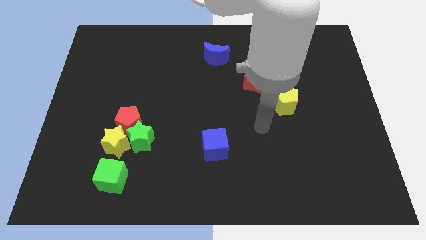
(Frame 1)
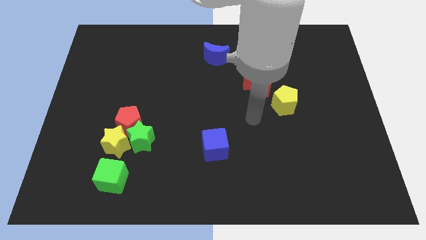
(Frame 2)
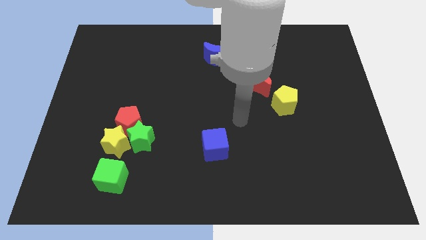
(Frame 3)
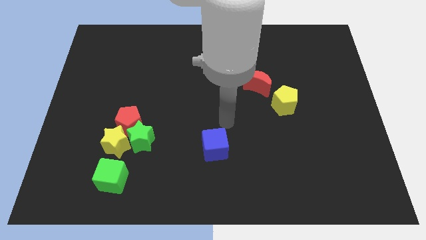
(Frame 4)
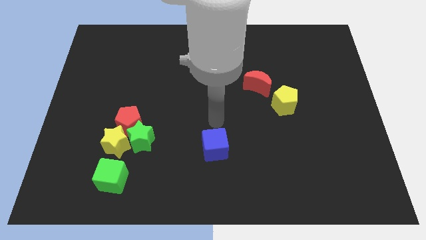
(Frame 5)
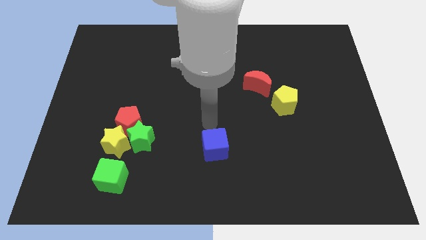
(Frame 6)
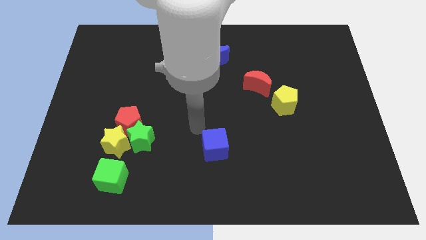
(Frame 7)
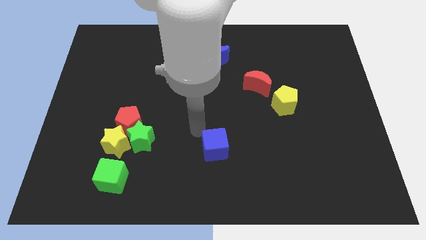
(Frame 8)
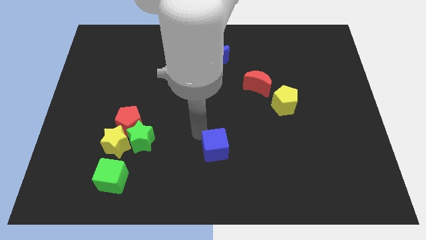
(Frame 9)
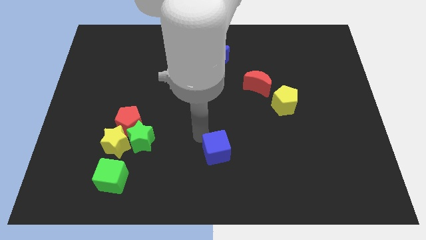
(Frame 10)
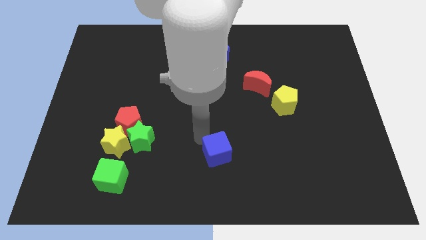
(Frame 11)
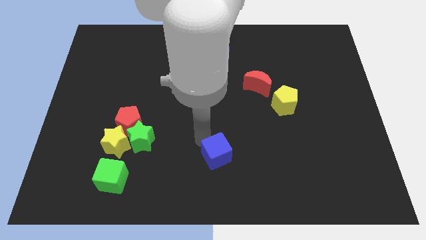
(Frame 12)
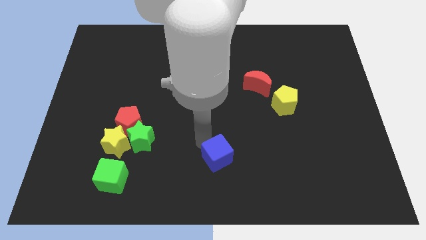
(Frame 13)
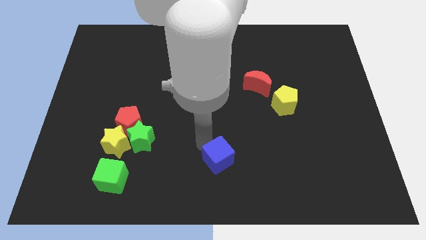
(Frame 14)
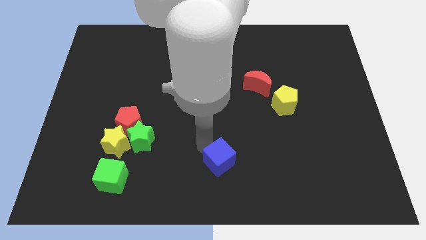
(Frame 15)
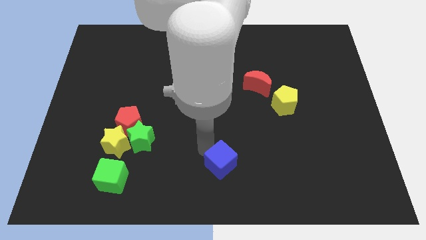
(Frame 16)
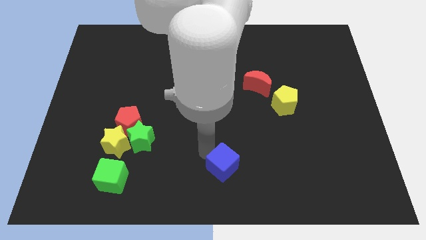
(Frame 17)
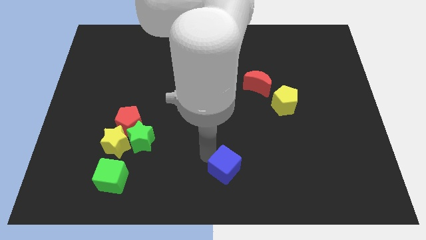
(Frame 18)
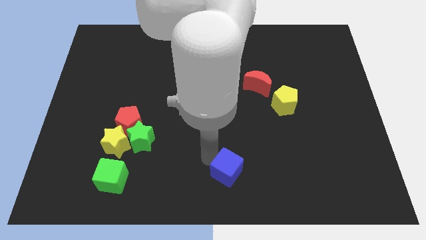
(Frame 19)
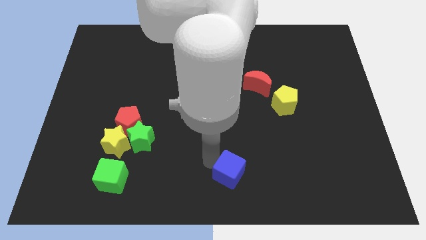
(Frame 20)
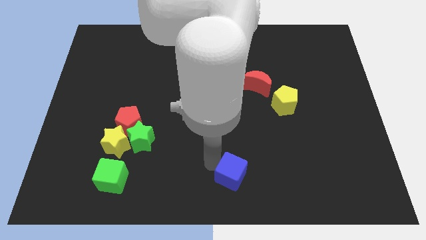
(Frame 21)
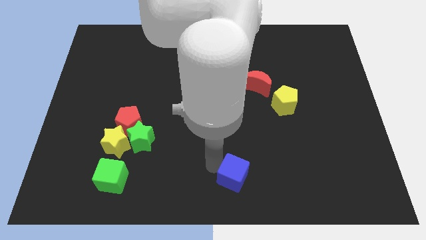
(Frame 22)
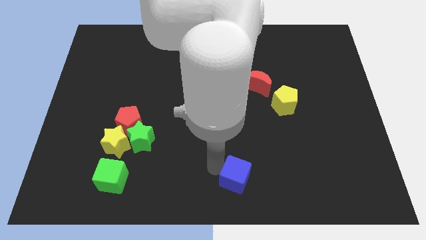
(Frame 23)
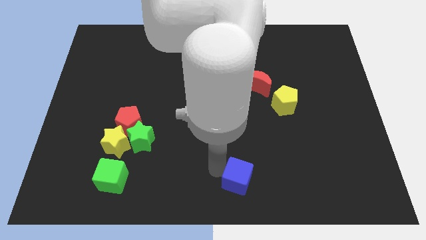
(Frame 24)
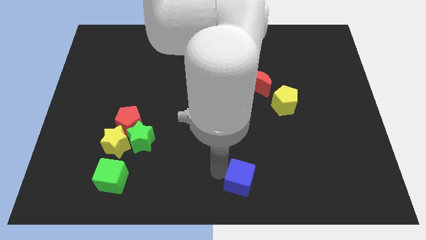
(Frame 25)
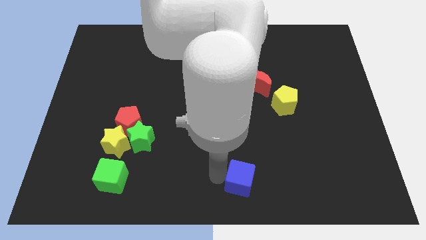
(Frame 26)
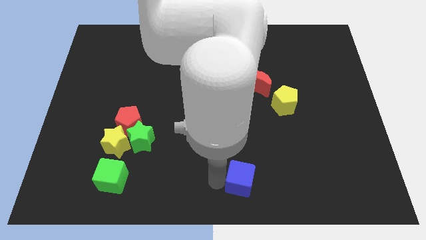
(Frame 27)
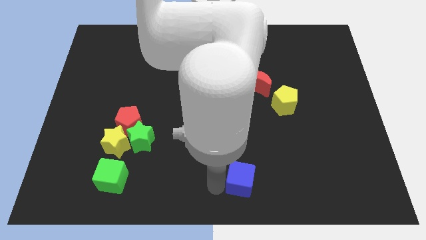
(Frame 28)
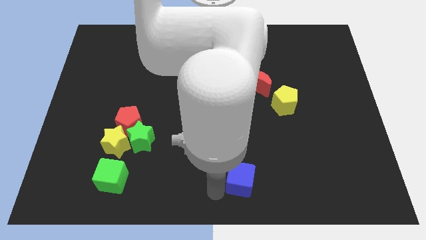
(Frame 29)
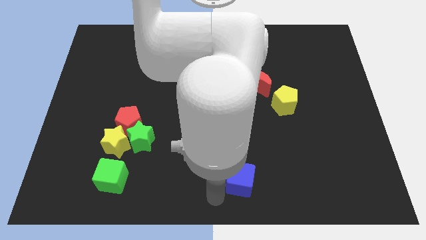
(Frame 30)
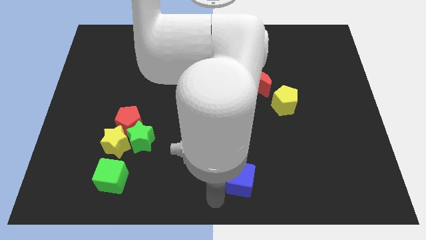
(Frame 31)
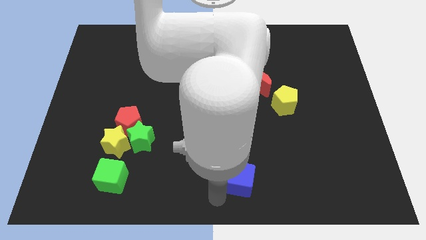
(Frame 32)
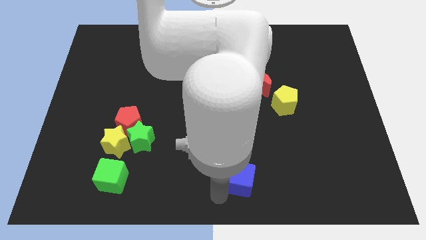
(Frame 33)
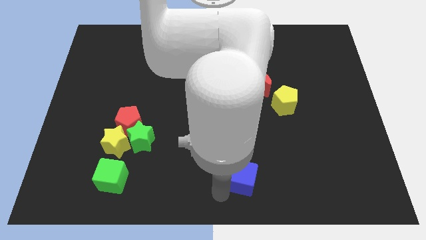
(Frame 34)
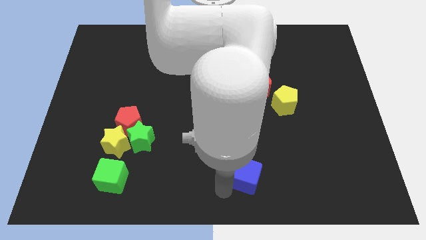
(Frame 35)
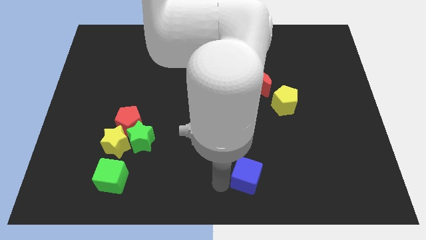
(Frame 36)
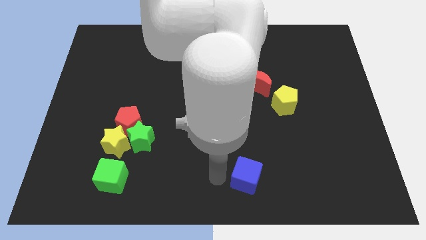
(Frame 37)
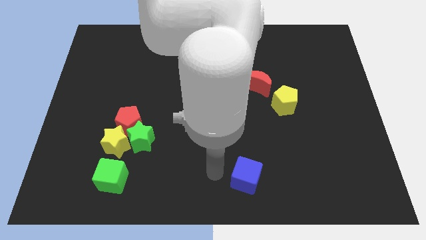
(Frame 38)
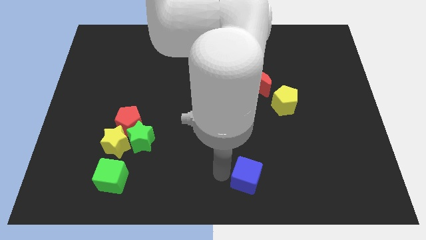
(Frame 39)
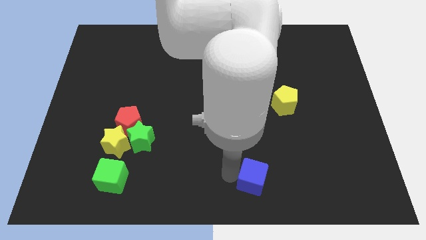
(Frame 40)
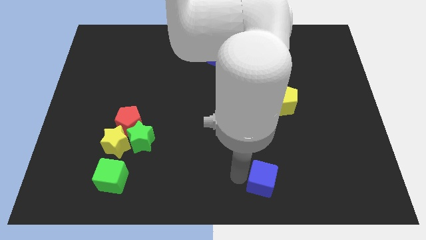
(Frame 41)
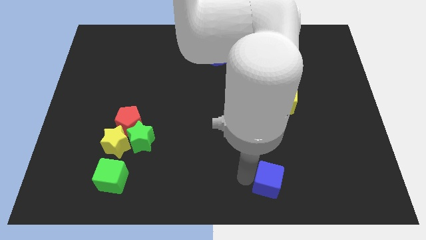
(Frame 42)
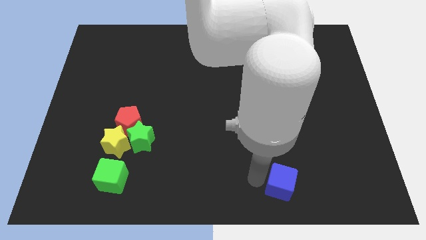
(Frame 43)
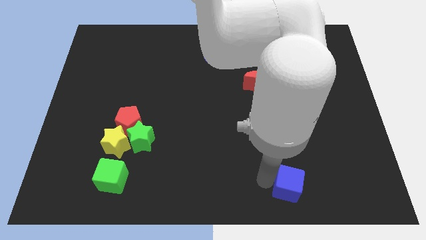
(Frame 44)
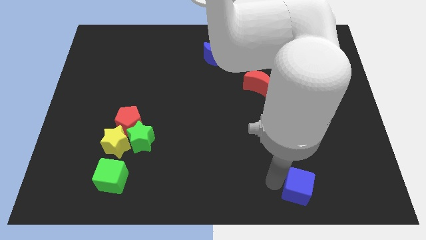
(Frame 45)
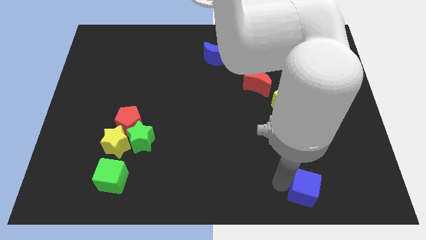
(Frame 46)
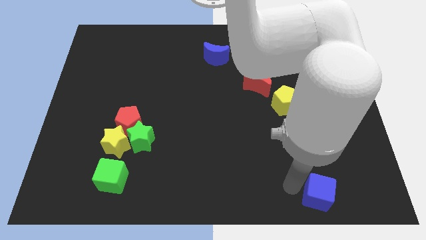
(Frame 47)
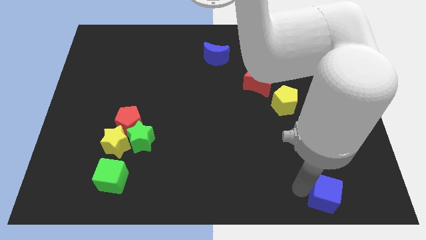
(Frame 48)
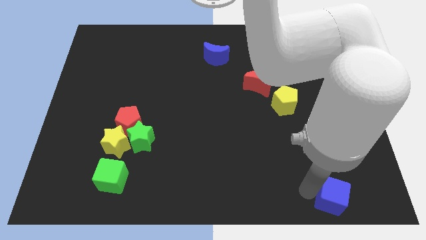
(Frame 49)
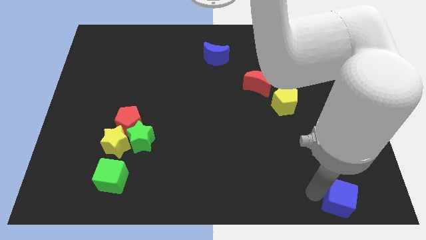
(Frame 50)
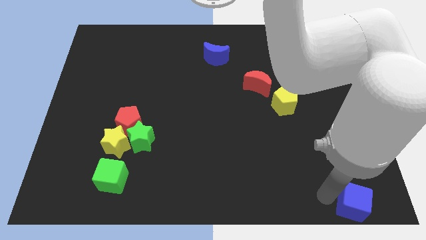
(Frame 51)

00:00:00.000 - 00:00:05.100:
slide the blue cube to the bottom right
